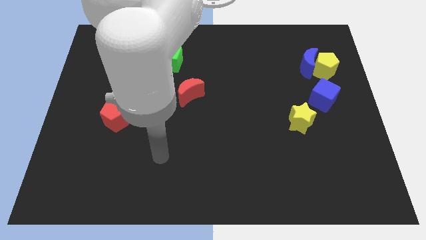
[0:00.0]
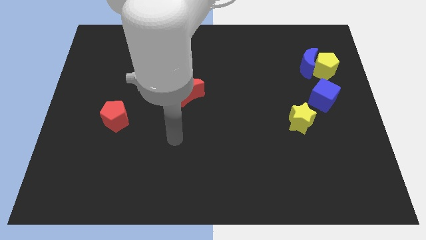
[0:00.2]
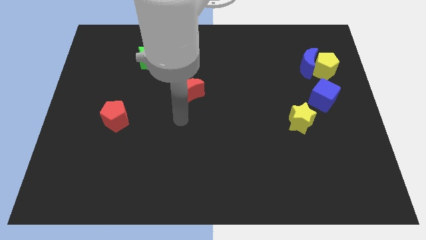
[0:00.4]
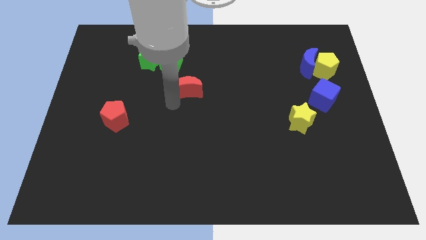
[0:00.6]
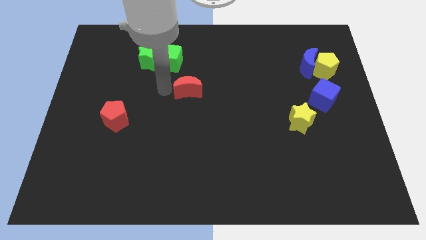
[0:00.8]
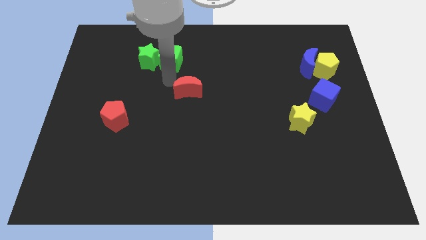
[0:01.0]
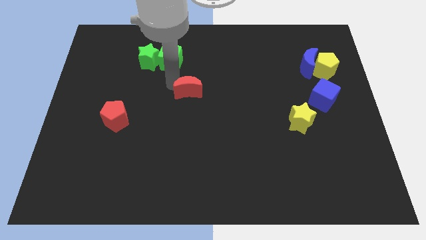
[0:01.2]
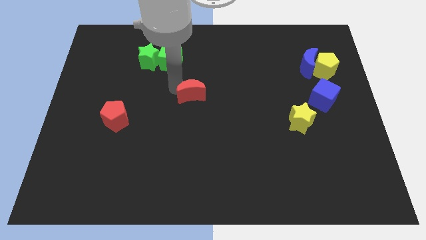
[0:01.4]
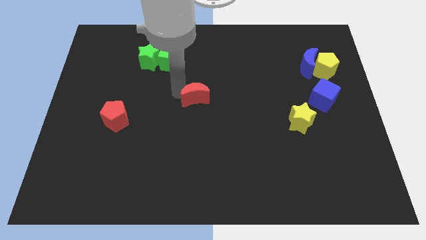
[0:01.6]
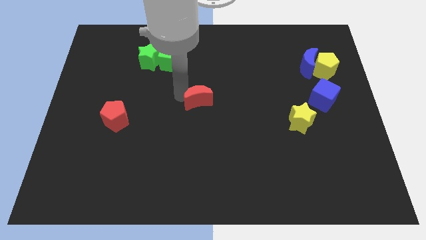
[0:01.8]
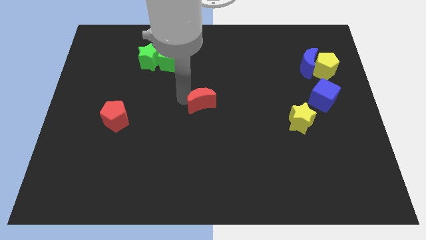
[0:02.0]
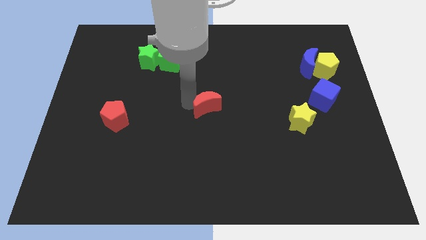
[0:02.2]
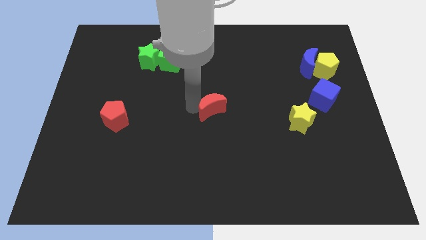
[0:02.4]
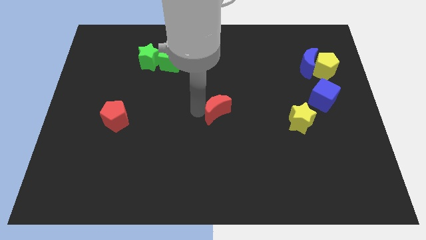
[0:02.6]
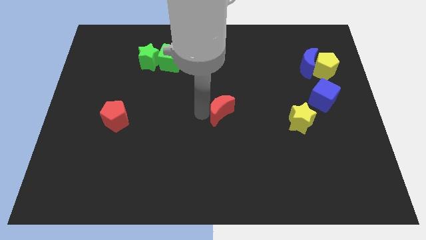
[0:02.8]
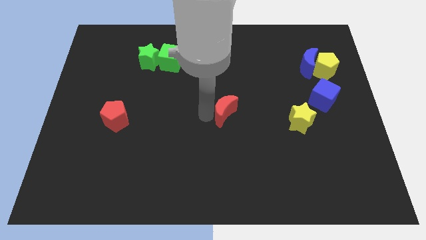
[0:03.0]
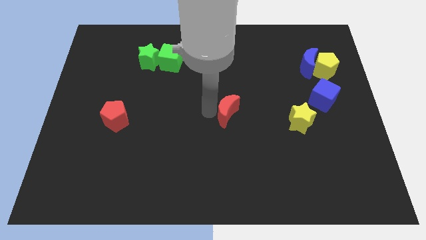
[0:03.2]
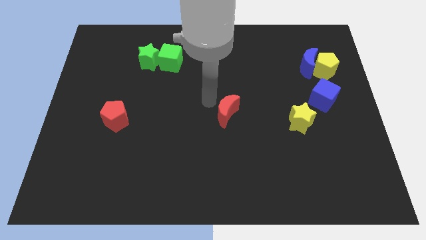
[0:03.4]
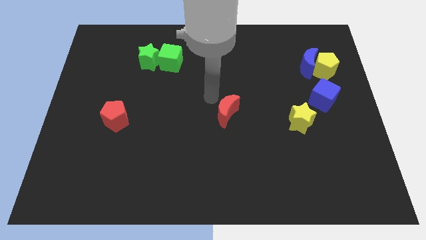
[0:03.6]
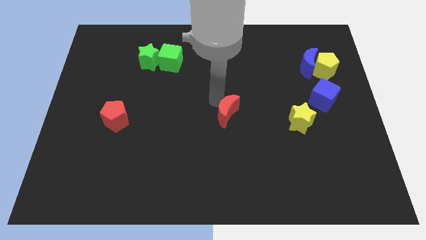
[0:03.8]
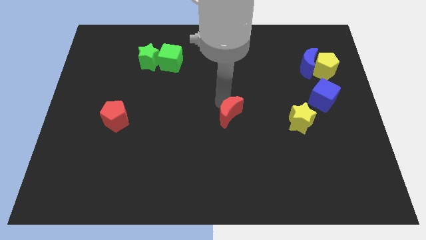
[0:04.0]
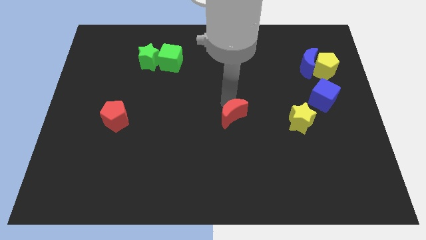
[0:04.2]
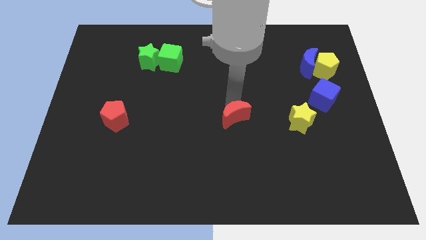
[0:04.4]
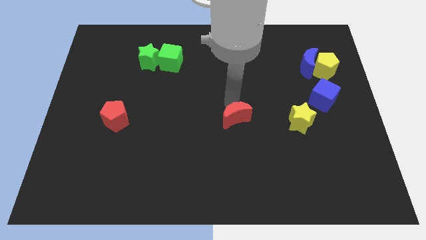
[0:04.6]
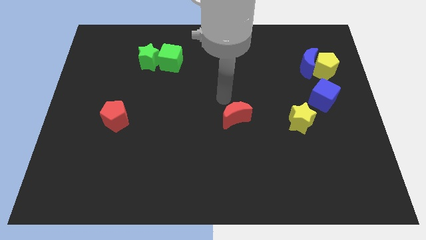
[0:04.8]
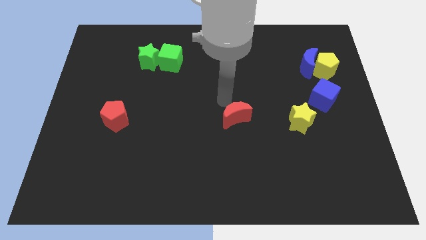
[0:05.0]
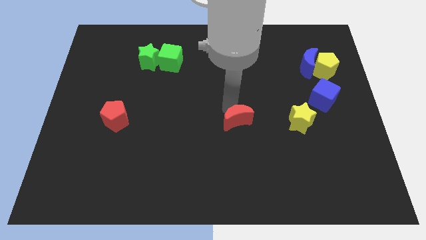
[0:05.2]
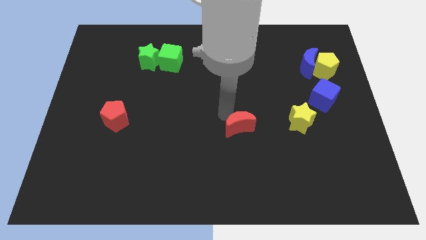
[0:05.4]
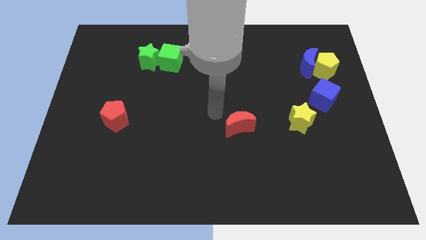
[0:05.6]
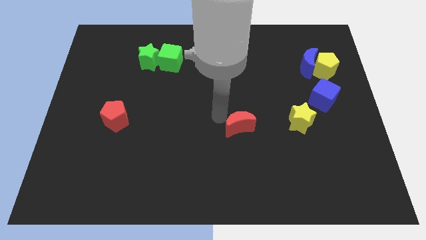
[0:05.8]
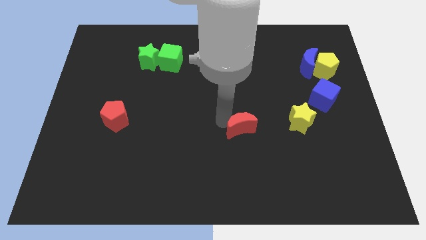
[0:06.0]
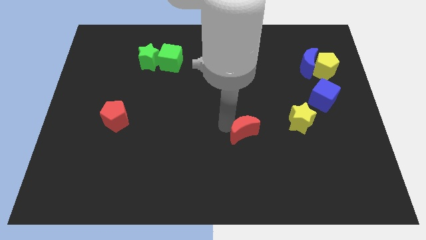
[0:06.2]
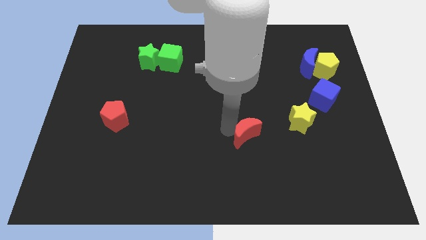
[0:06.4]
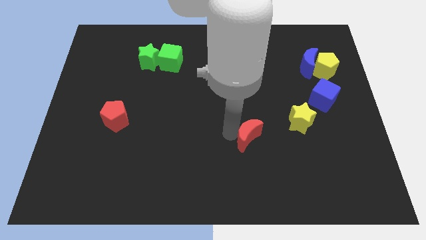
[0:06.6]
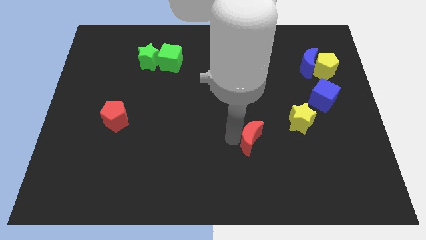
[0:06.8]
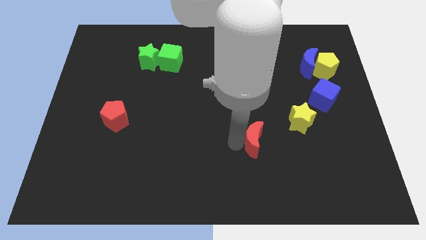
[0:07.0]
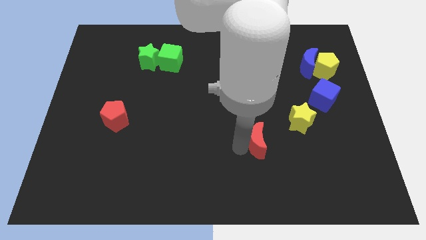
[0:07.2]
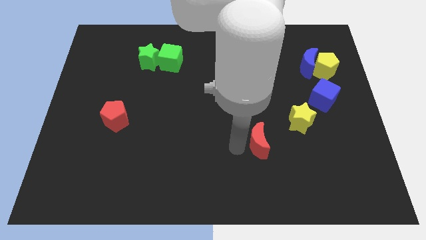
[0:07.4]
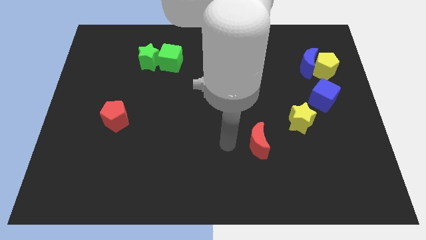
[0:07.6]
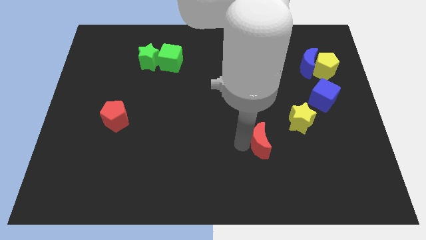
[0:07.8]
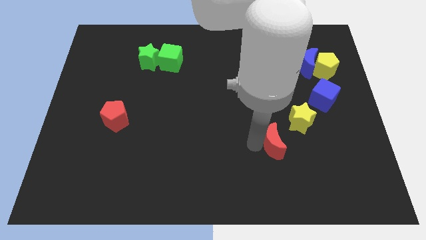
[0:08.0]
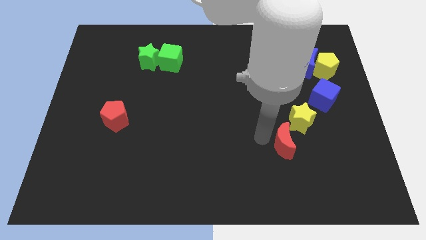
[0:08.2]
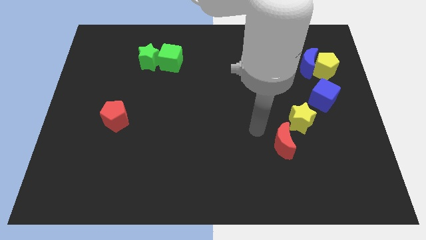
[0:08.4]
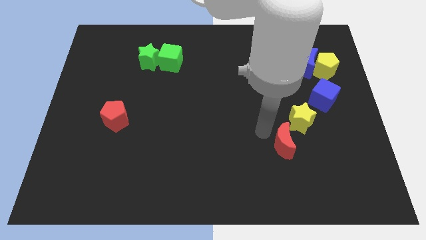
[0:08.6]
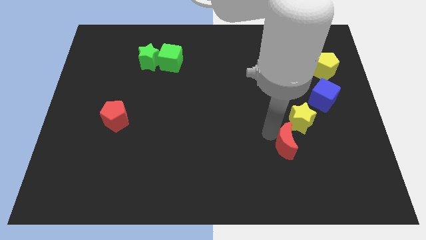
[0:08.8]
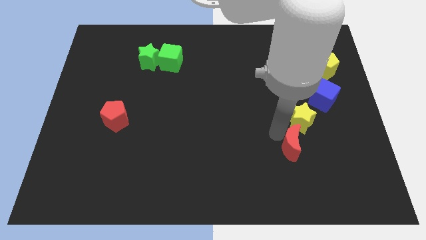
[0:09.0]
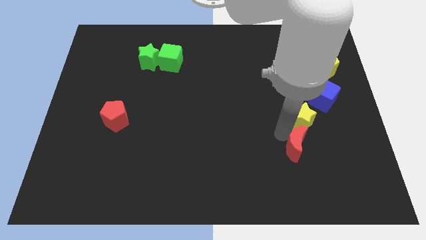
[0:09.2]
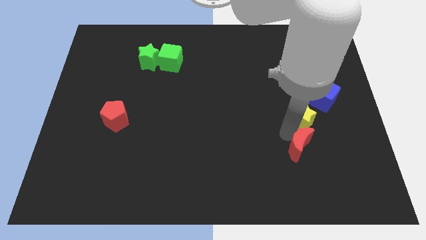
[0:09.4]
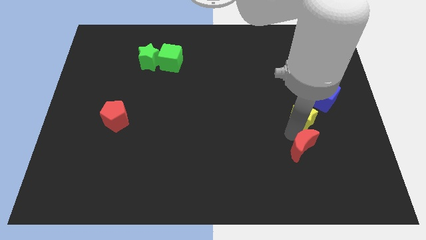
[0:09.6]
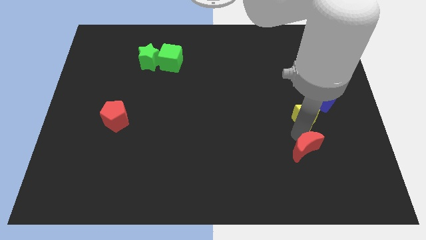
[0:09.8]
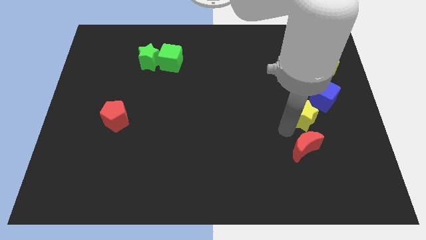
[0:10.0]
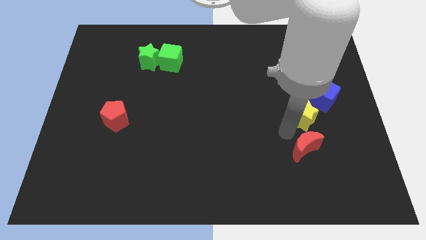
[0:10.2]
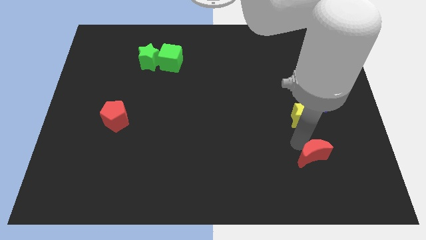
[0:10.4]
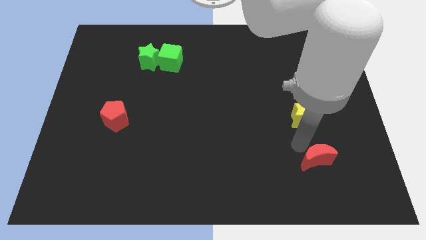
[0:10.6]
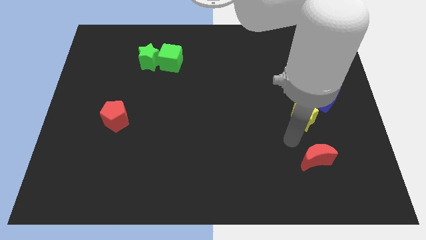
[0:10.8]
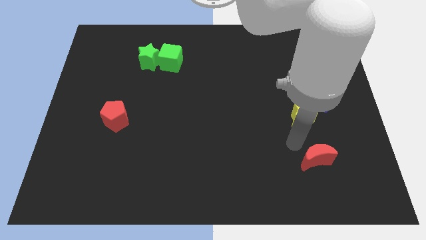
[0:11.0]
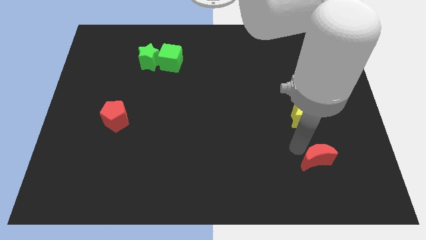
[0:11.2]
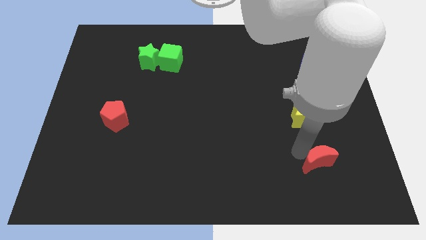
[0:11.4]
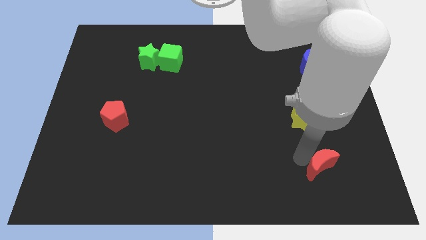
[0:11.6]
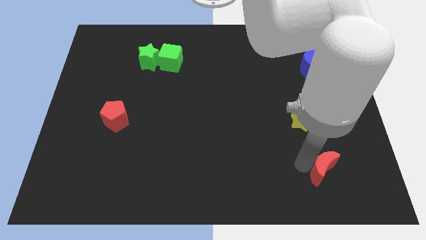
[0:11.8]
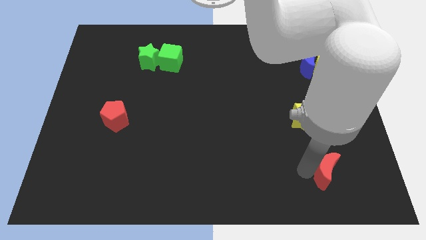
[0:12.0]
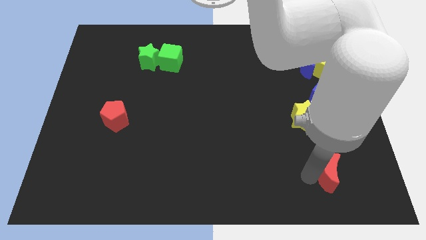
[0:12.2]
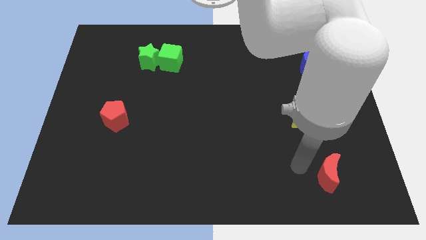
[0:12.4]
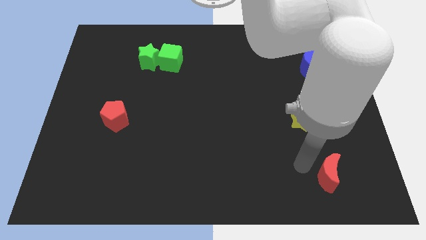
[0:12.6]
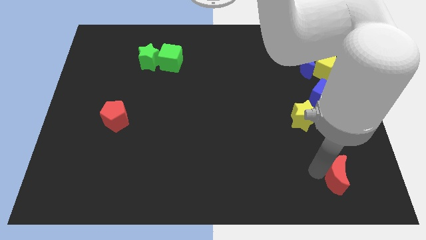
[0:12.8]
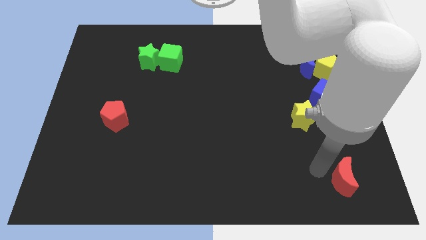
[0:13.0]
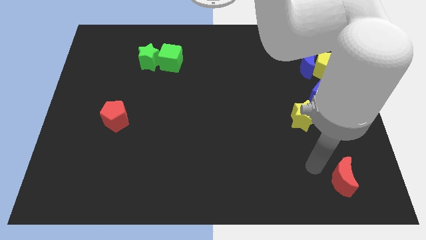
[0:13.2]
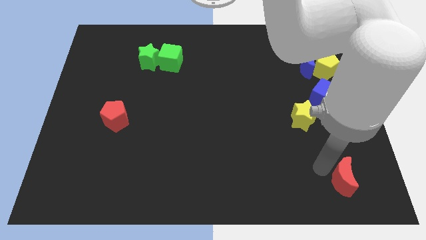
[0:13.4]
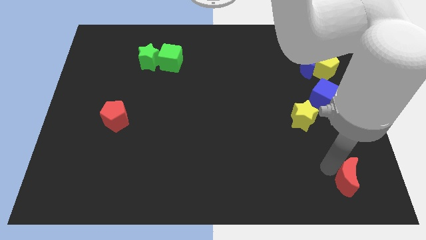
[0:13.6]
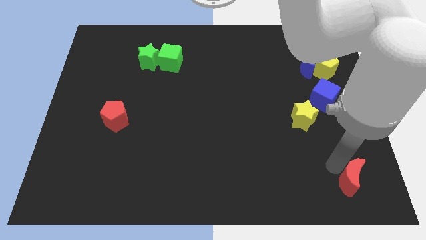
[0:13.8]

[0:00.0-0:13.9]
push the red moon to the bottom right of the board
